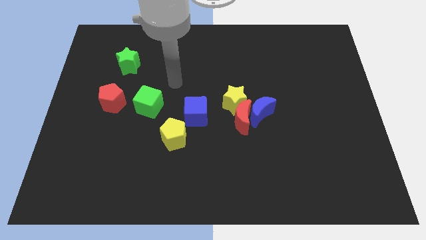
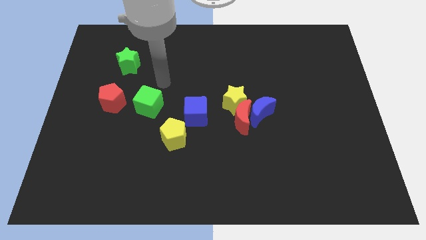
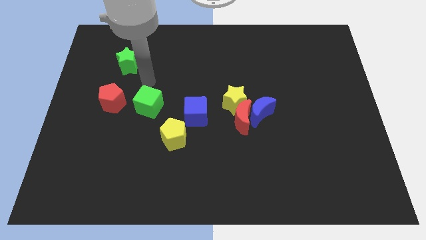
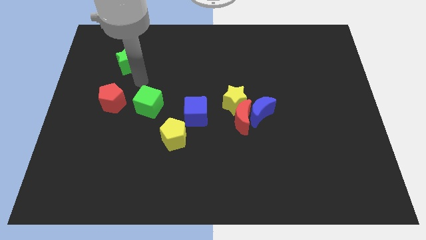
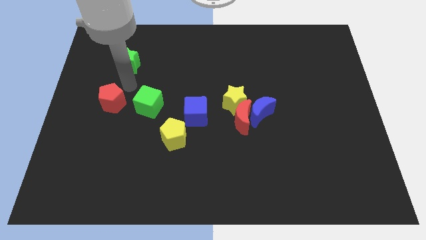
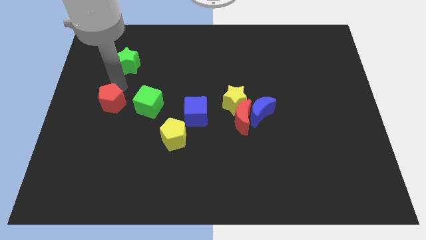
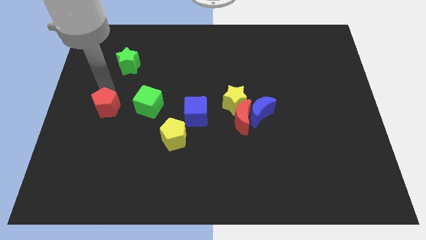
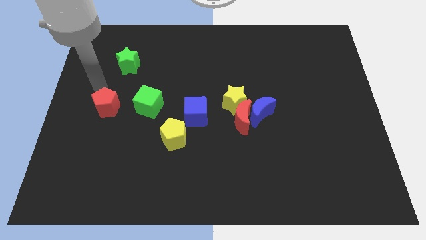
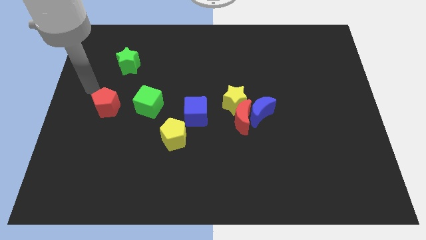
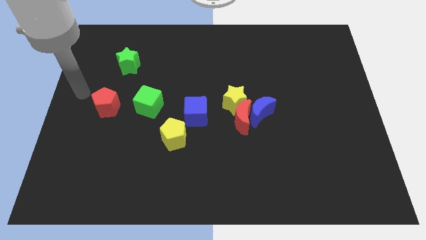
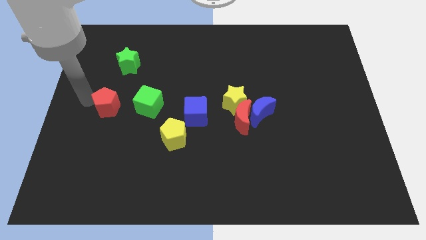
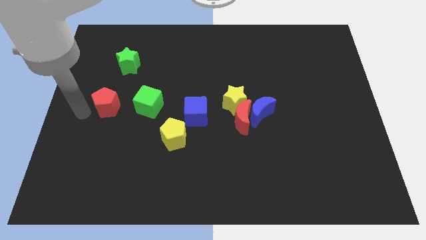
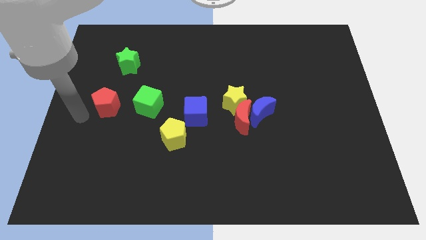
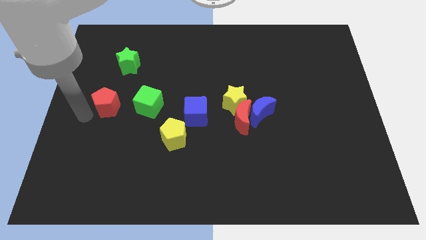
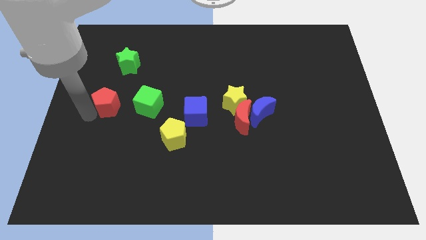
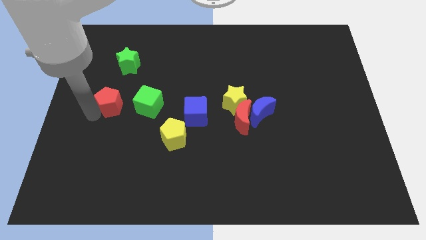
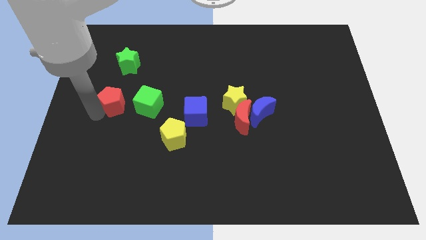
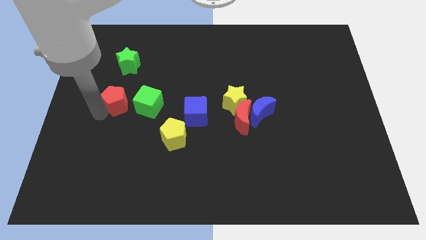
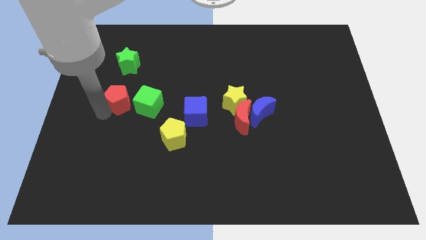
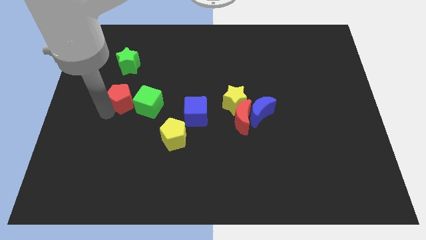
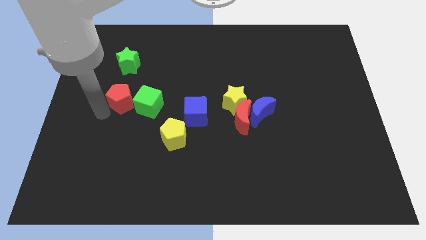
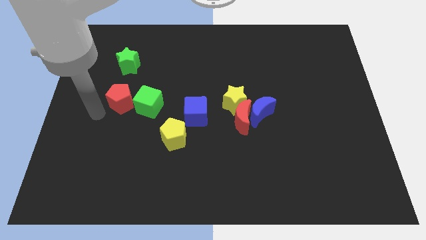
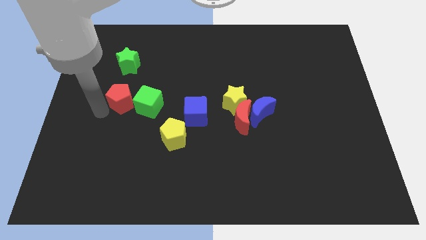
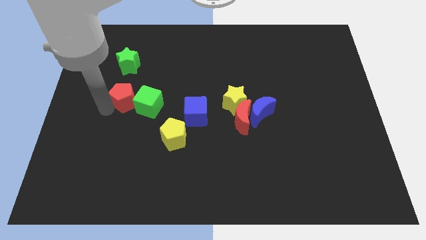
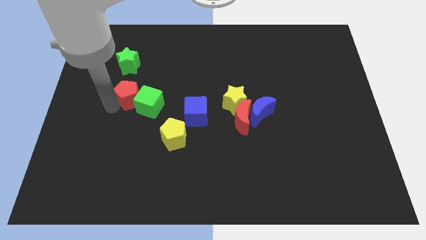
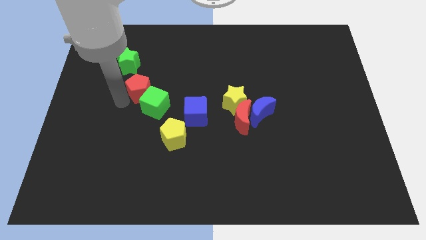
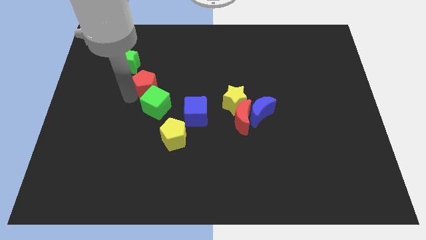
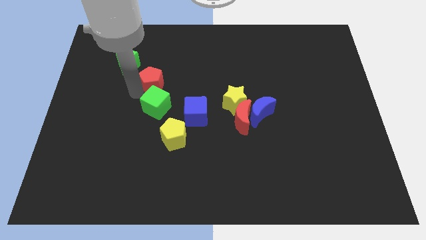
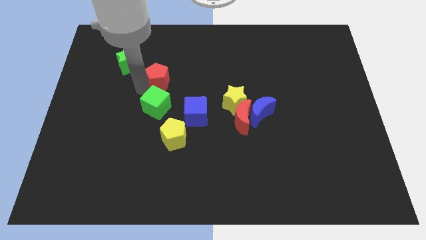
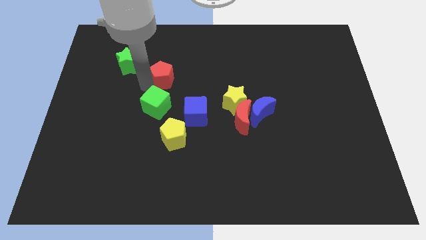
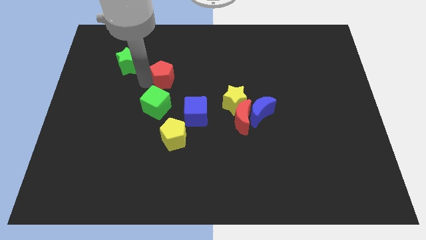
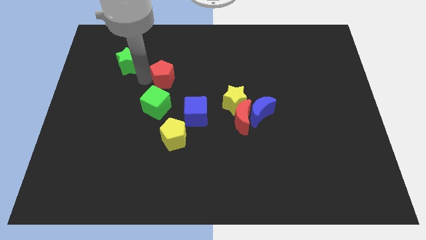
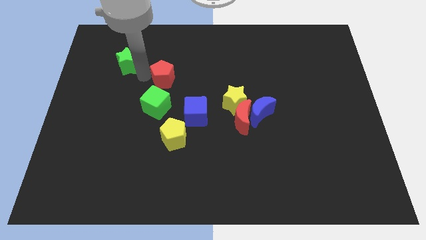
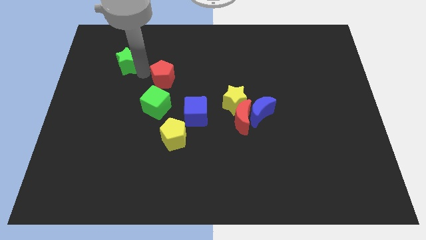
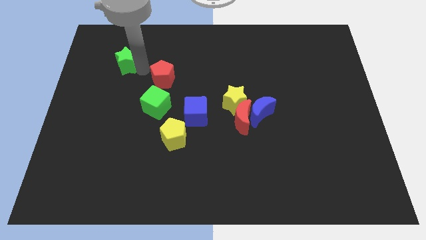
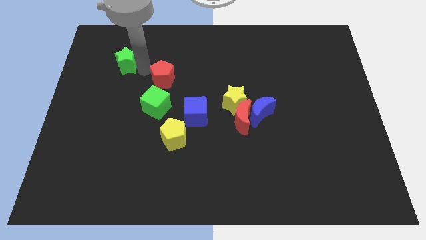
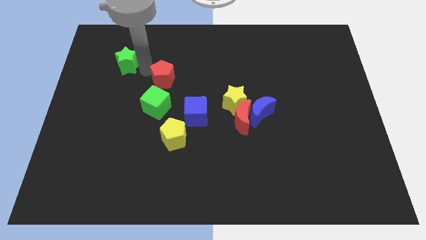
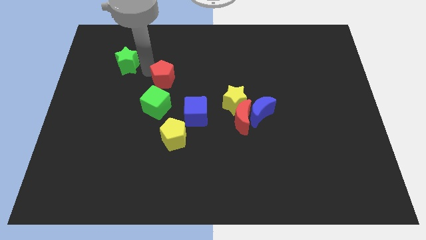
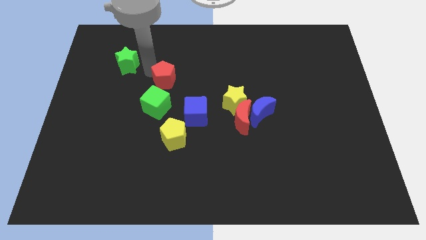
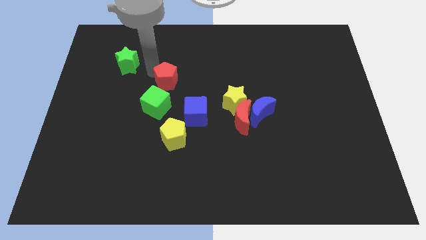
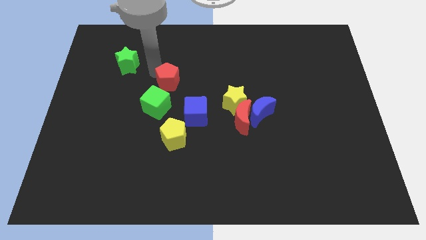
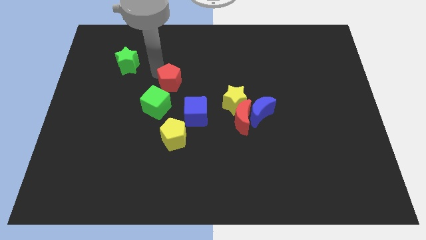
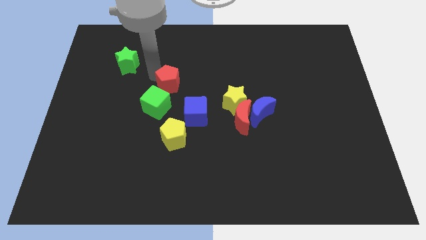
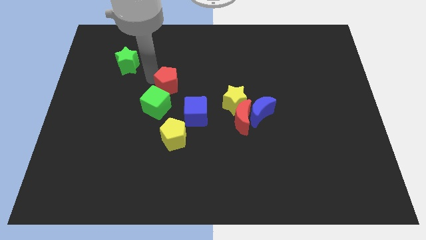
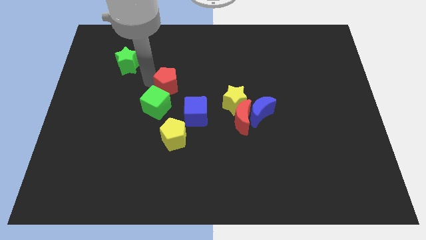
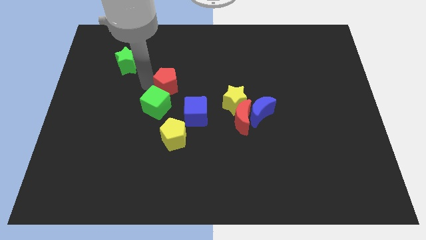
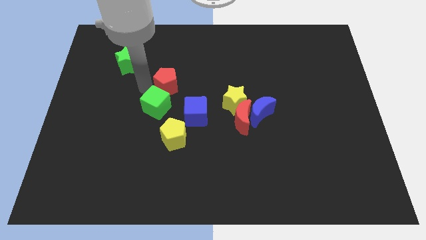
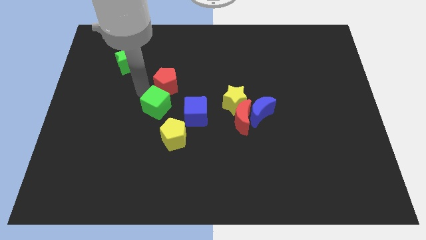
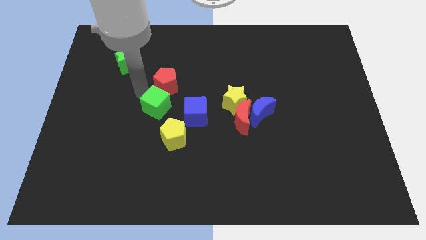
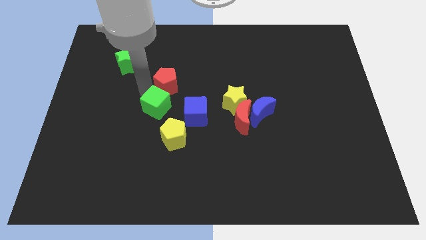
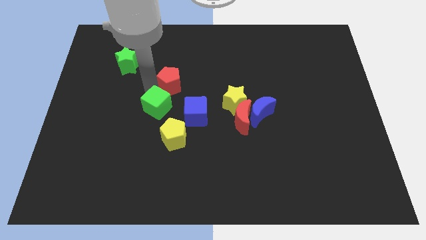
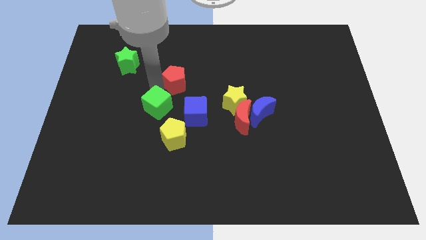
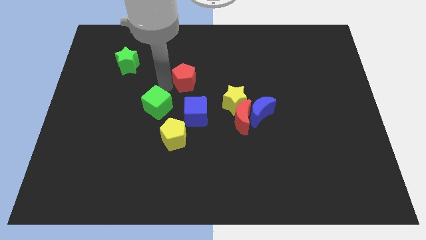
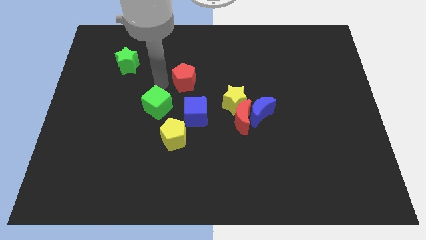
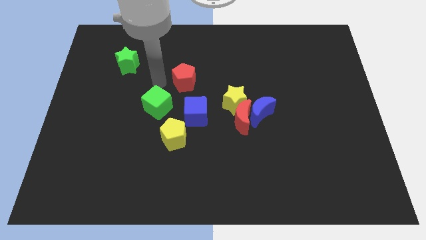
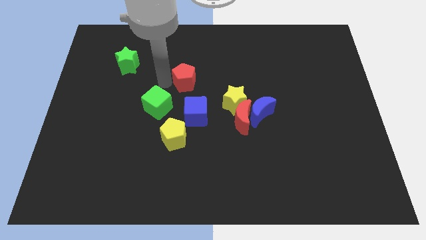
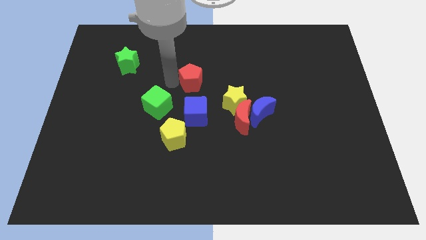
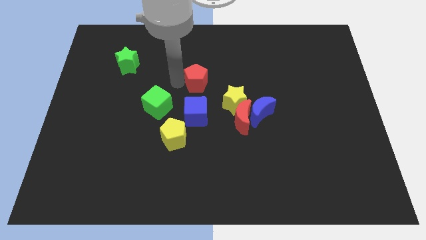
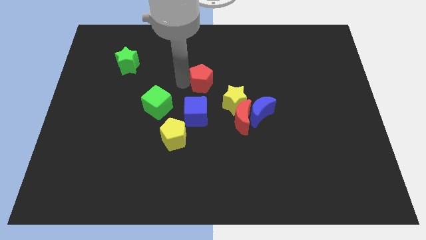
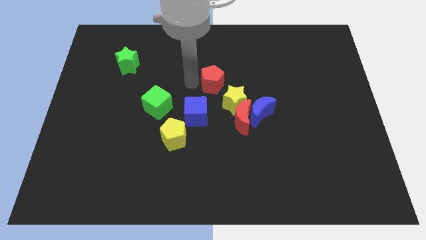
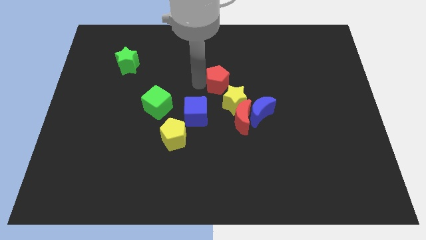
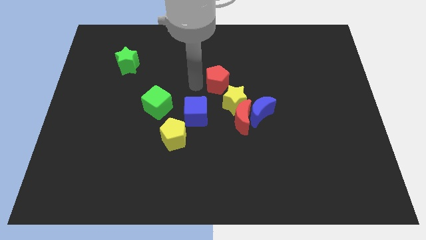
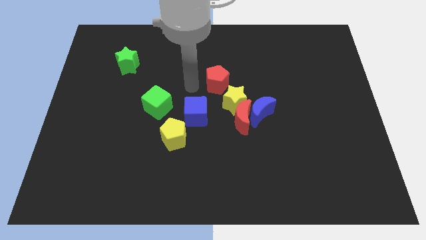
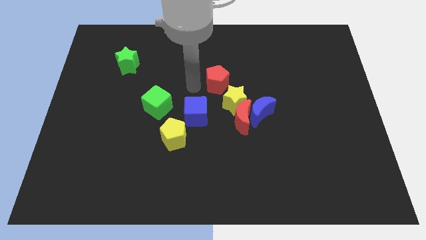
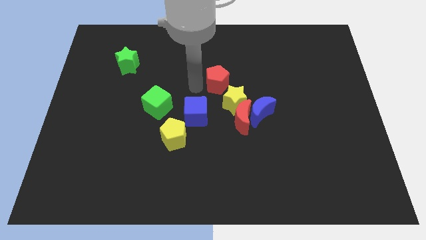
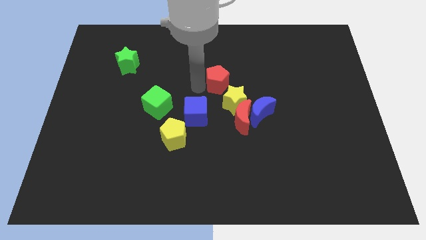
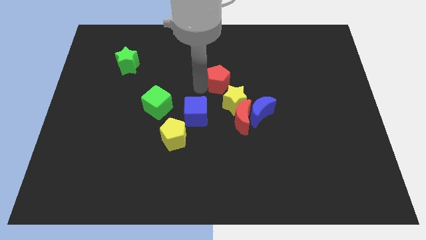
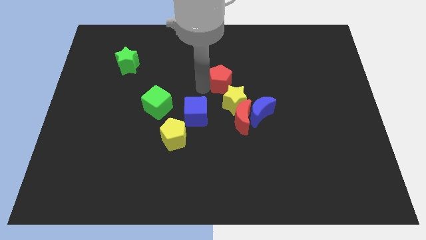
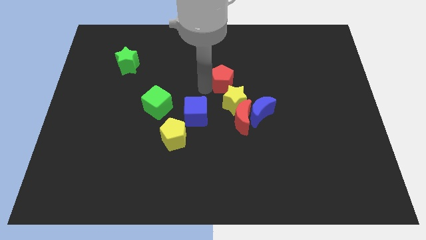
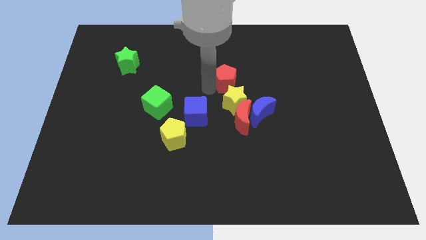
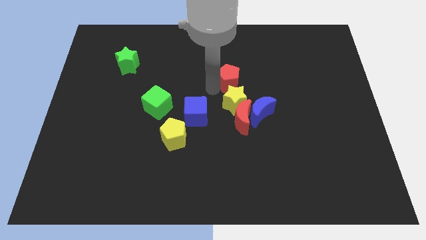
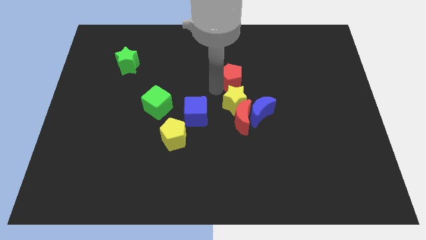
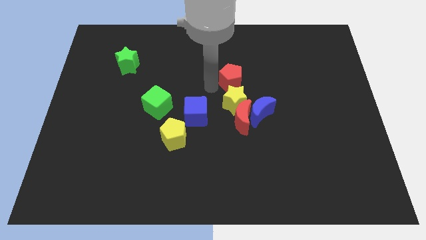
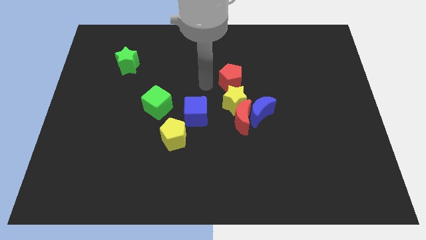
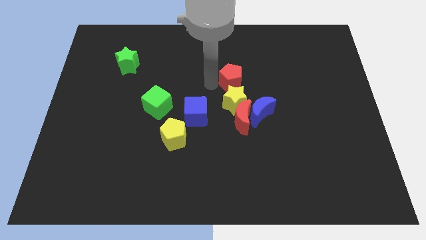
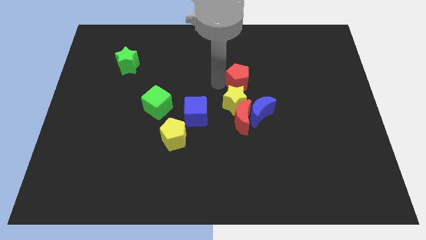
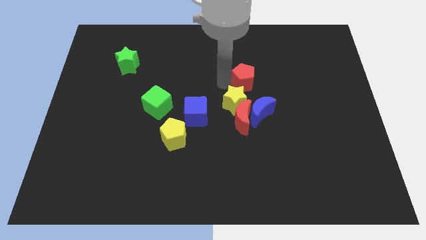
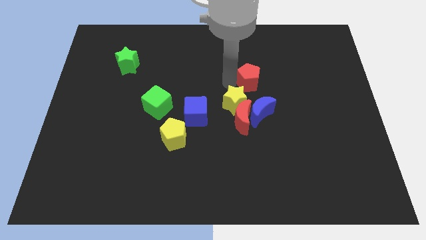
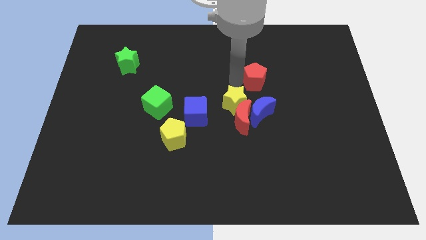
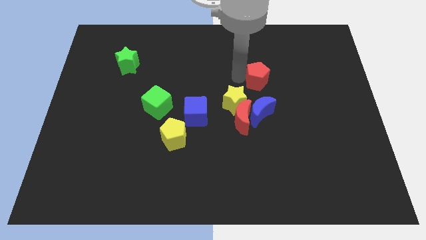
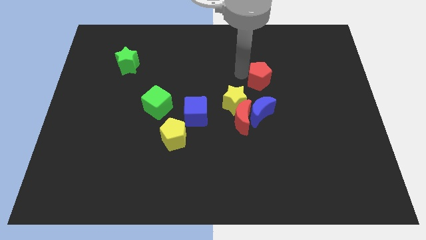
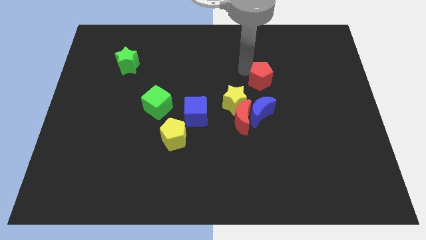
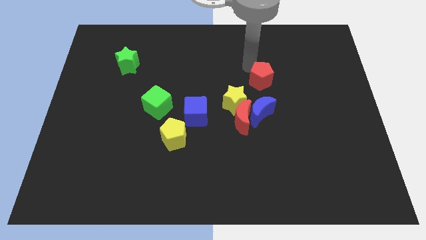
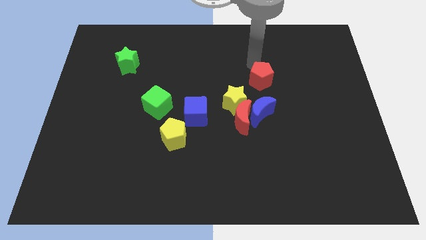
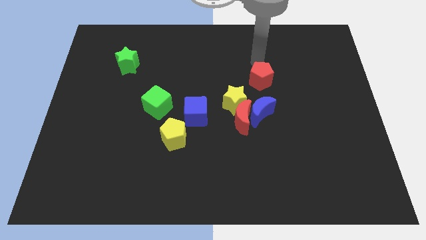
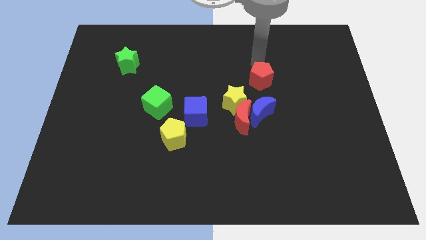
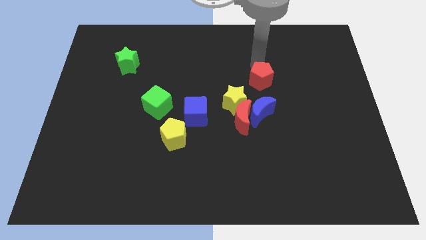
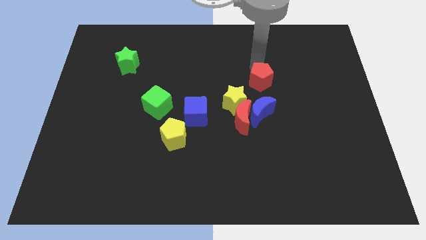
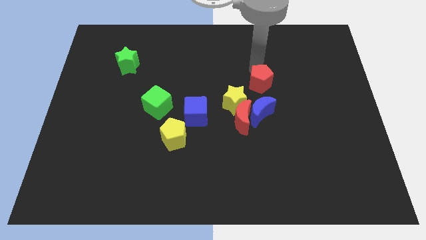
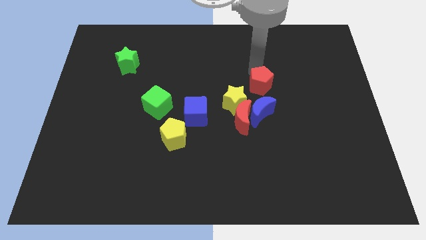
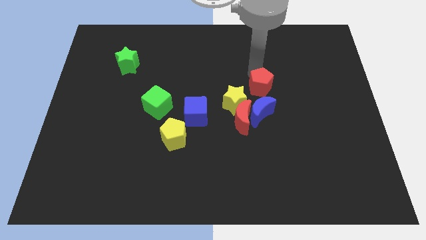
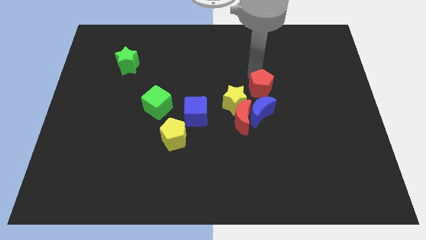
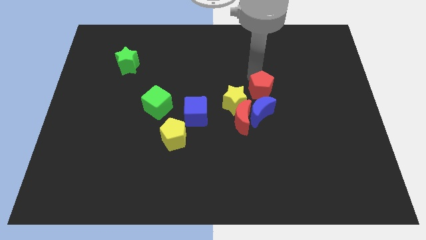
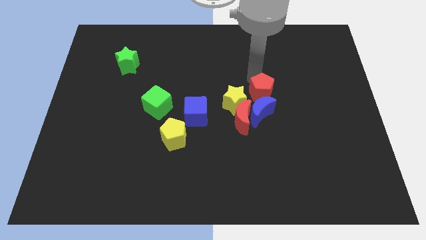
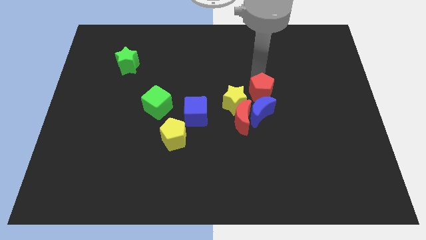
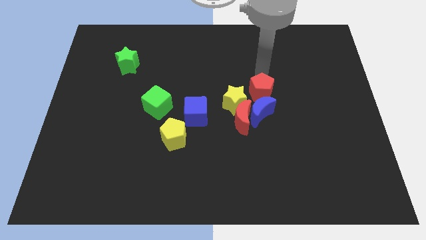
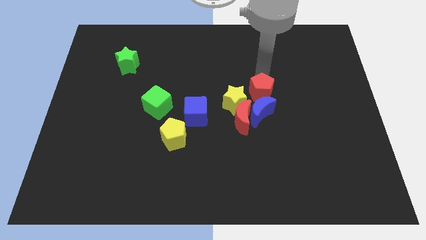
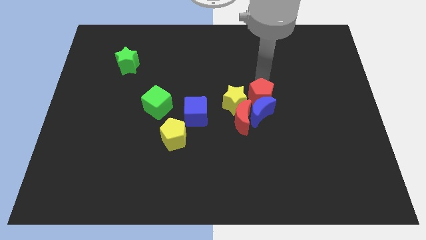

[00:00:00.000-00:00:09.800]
push the red pentagon towards the blue moon
